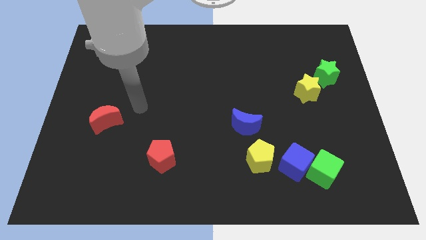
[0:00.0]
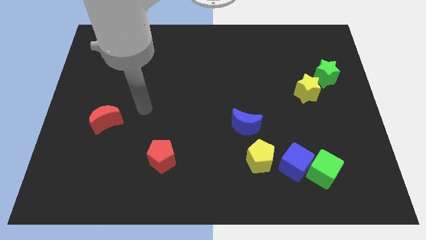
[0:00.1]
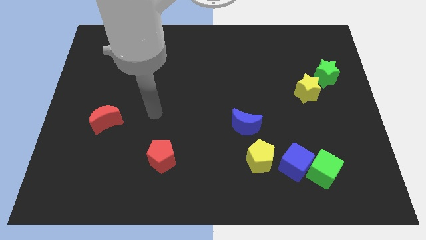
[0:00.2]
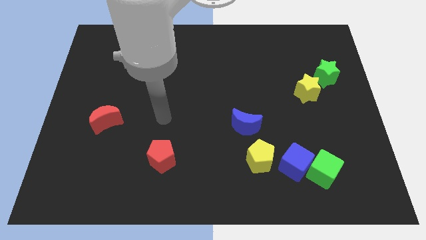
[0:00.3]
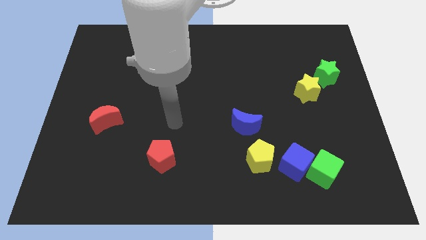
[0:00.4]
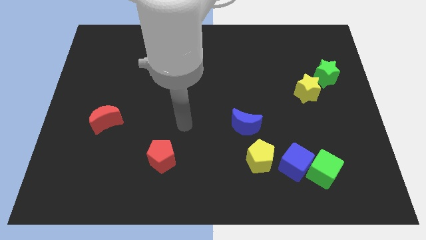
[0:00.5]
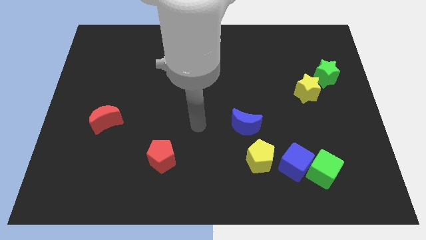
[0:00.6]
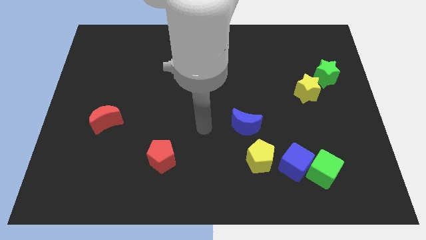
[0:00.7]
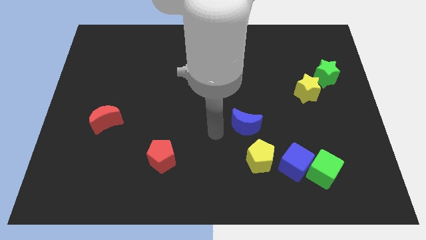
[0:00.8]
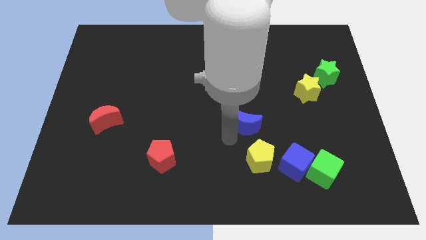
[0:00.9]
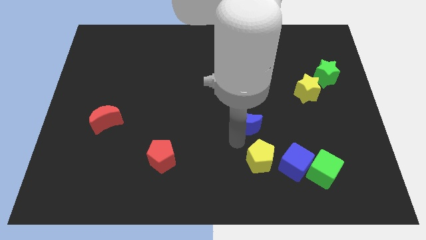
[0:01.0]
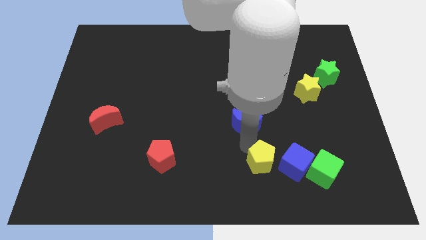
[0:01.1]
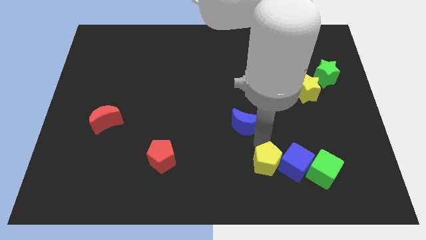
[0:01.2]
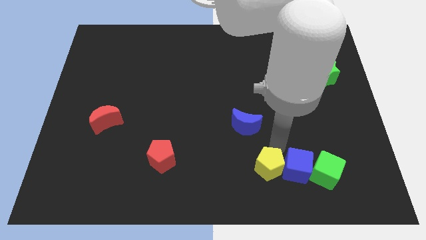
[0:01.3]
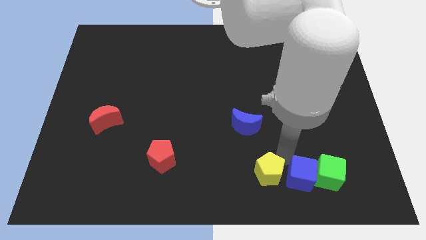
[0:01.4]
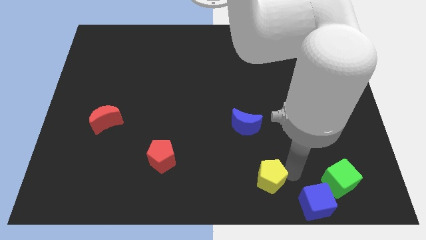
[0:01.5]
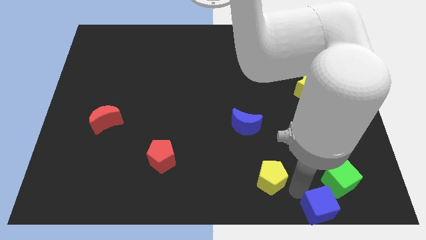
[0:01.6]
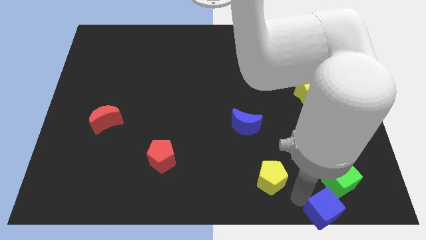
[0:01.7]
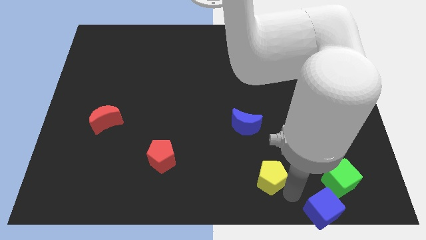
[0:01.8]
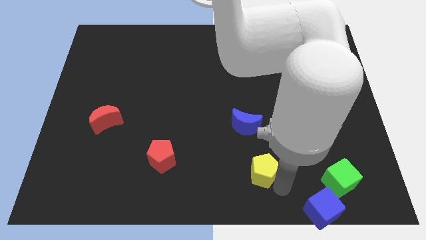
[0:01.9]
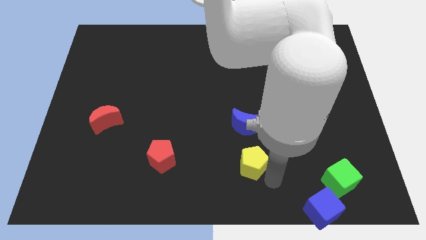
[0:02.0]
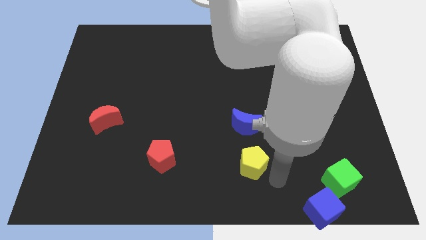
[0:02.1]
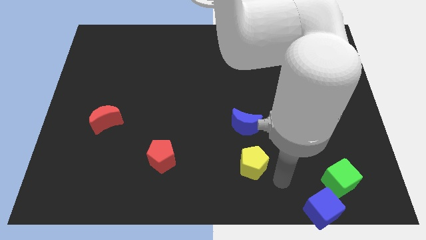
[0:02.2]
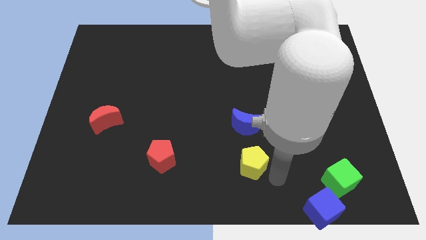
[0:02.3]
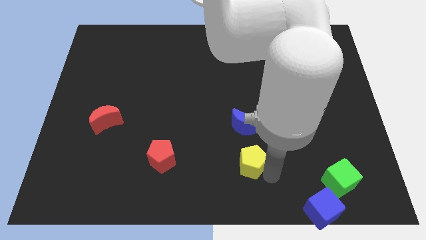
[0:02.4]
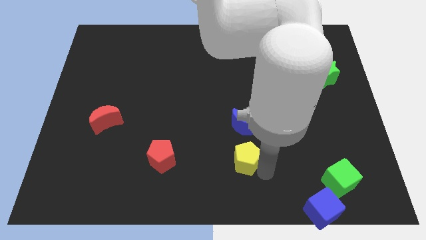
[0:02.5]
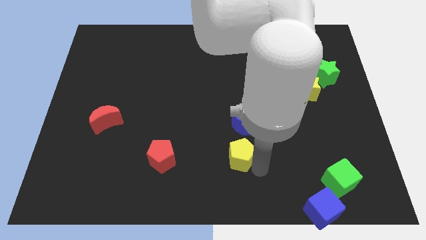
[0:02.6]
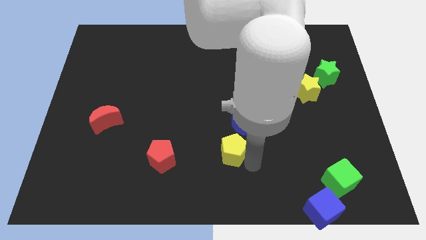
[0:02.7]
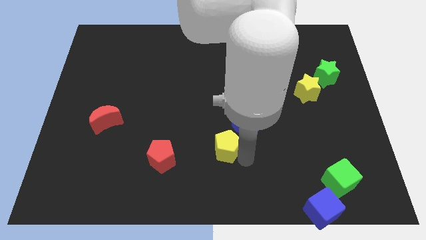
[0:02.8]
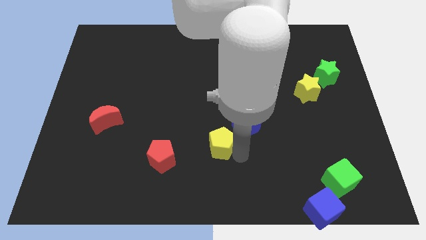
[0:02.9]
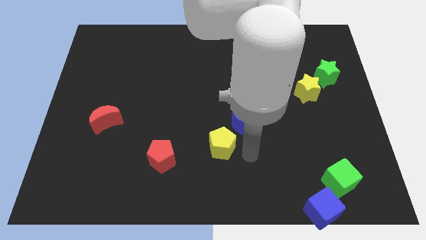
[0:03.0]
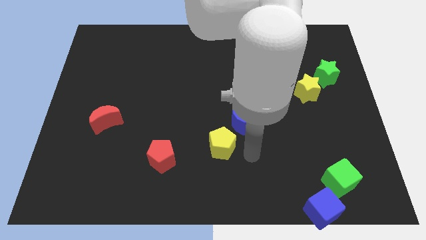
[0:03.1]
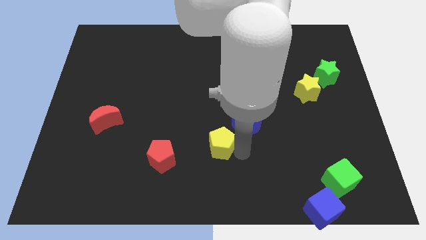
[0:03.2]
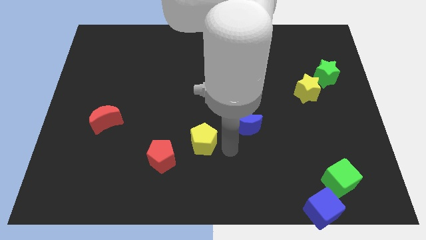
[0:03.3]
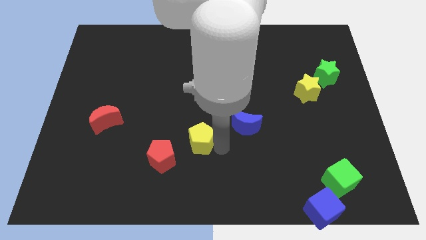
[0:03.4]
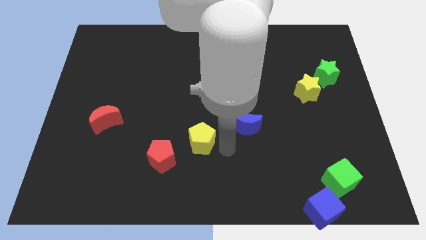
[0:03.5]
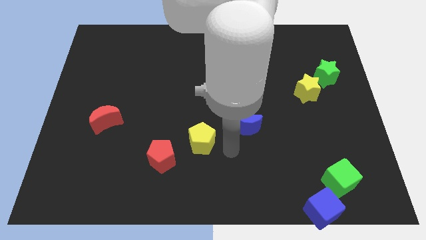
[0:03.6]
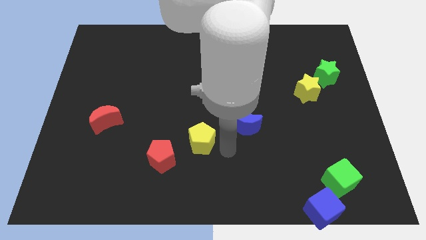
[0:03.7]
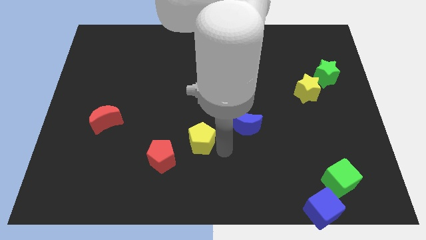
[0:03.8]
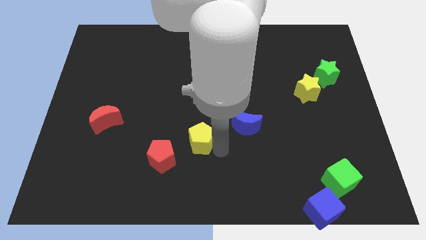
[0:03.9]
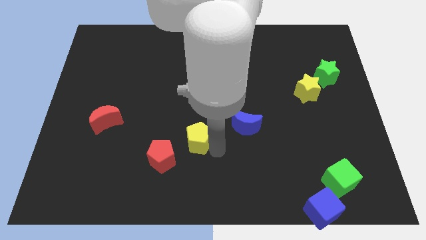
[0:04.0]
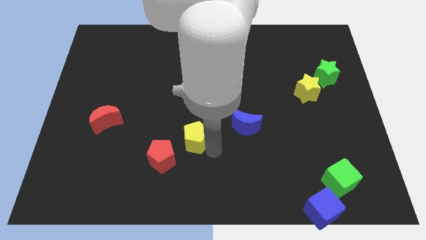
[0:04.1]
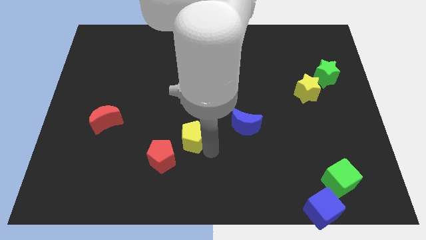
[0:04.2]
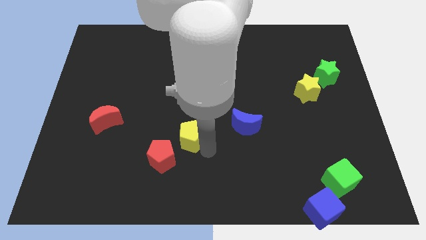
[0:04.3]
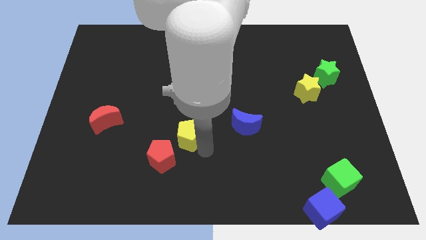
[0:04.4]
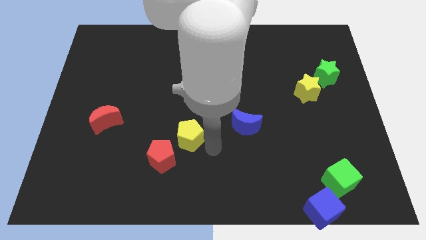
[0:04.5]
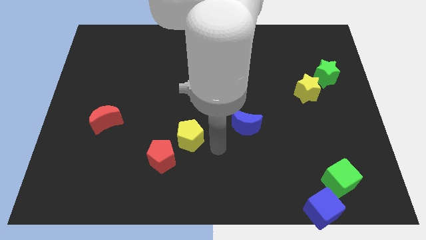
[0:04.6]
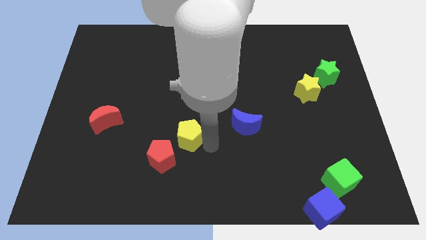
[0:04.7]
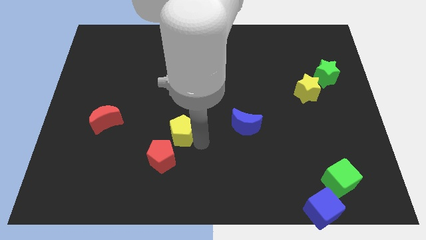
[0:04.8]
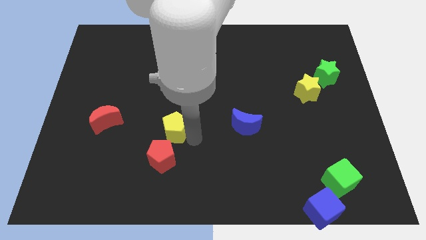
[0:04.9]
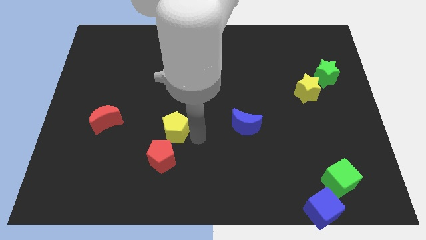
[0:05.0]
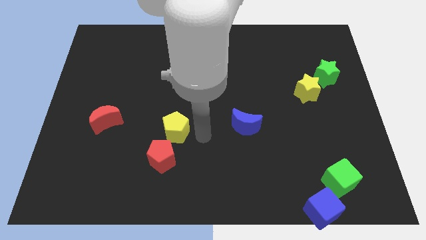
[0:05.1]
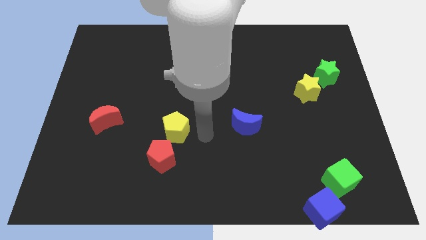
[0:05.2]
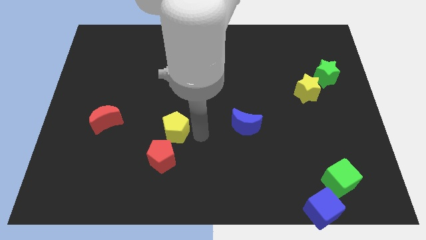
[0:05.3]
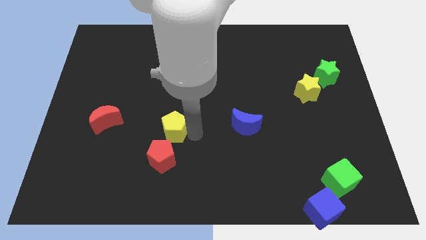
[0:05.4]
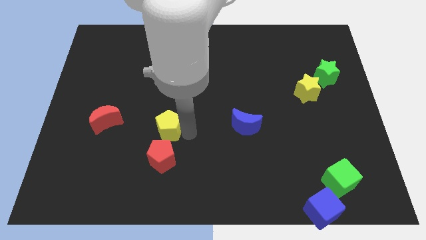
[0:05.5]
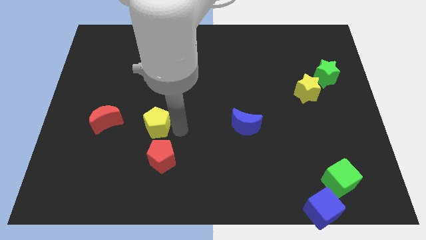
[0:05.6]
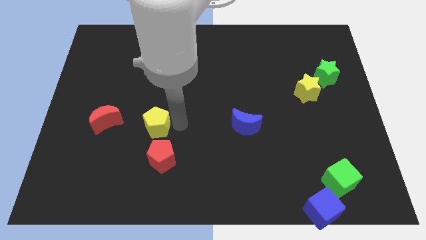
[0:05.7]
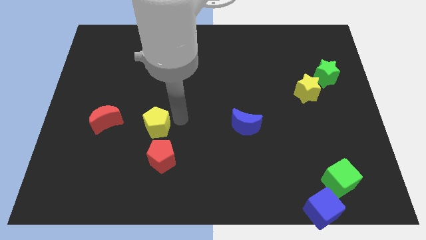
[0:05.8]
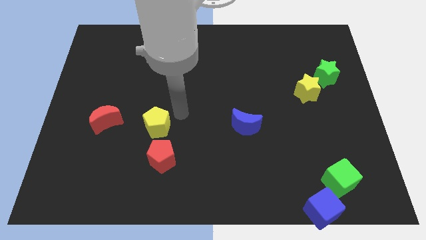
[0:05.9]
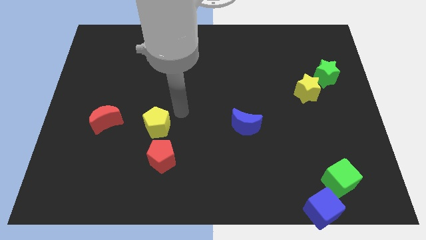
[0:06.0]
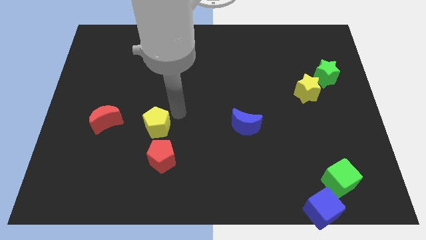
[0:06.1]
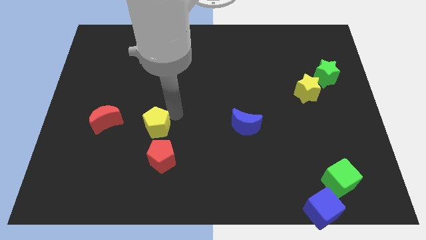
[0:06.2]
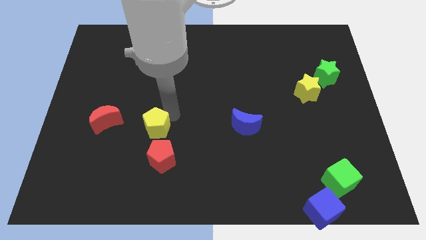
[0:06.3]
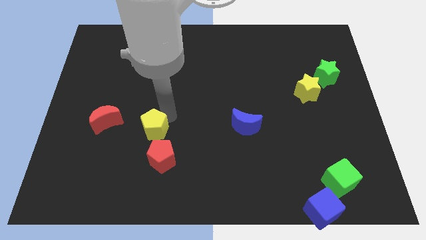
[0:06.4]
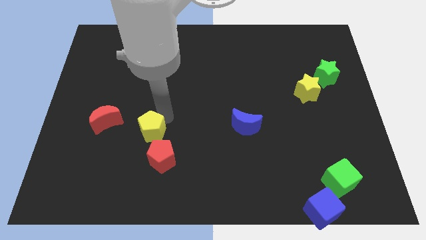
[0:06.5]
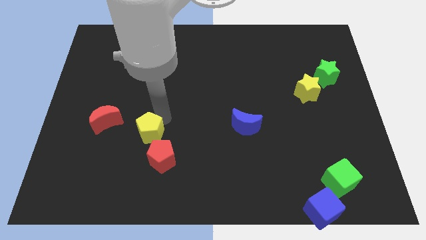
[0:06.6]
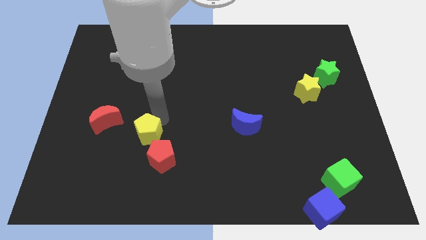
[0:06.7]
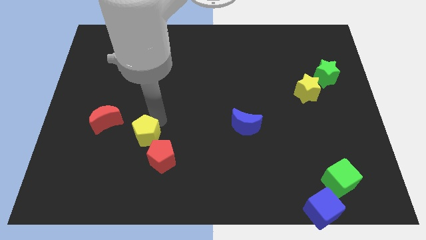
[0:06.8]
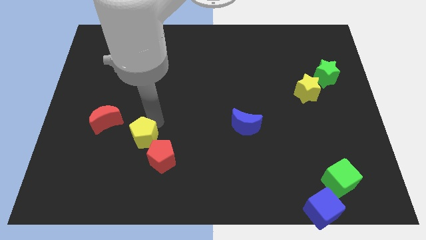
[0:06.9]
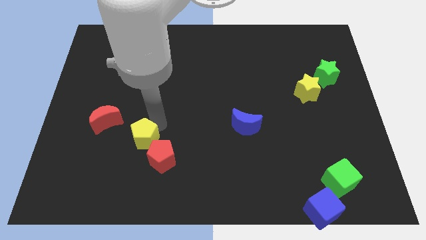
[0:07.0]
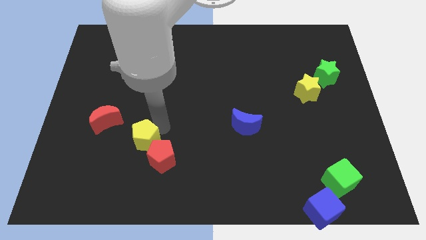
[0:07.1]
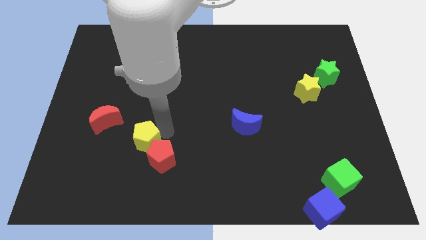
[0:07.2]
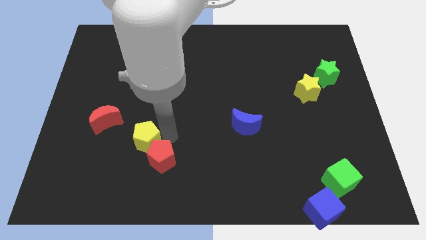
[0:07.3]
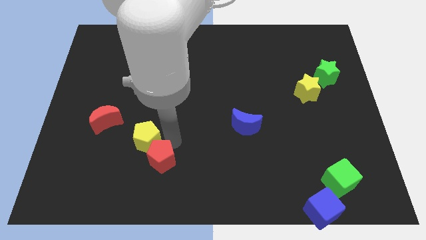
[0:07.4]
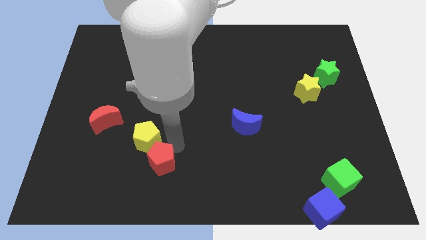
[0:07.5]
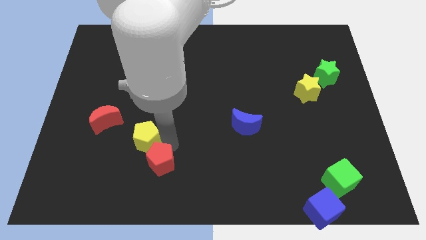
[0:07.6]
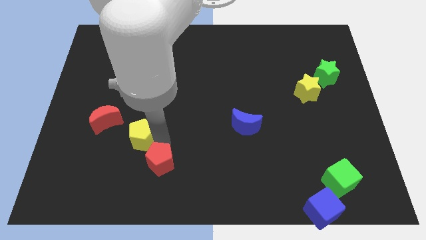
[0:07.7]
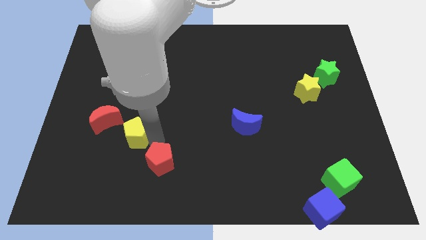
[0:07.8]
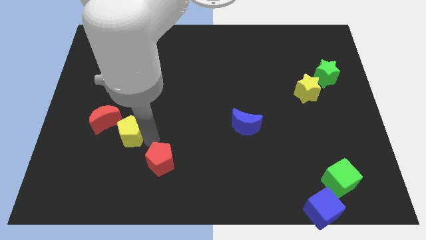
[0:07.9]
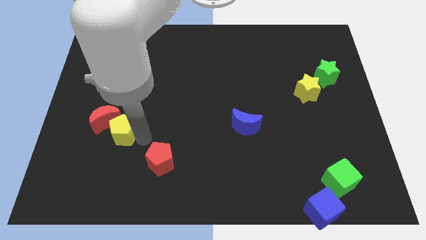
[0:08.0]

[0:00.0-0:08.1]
slide the yellow pentagon close to the red moon
